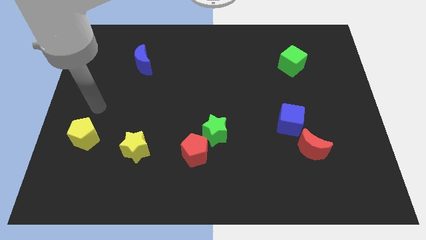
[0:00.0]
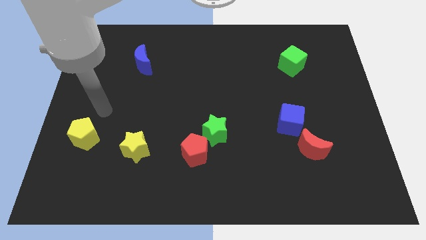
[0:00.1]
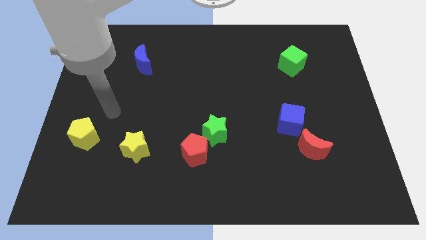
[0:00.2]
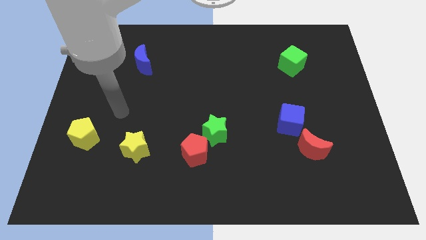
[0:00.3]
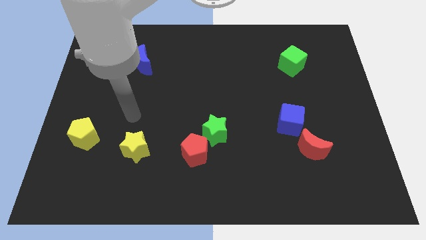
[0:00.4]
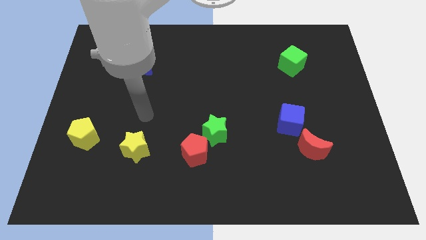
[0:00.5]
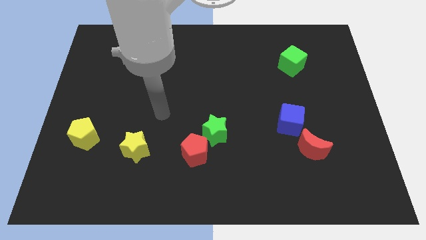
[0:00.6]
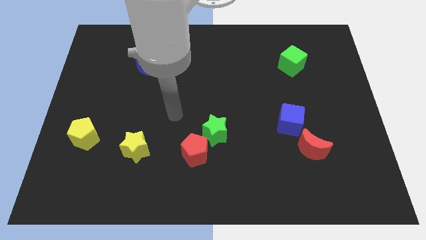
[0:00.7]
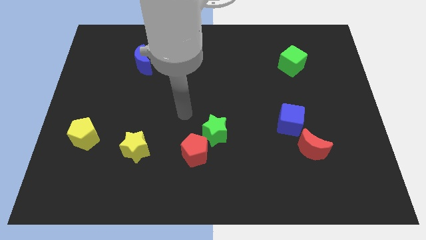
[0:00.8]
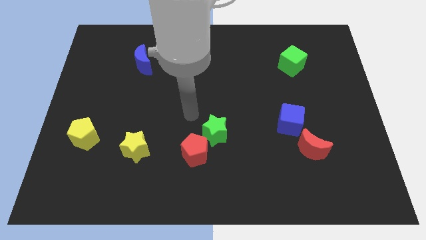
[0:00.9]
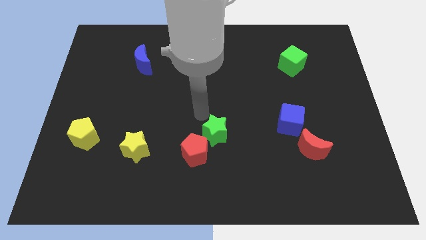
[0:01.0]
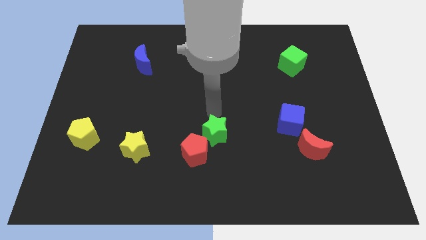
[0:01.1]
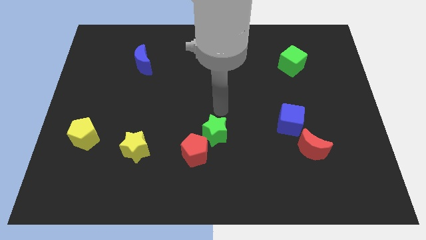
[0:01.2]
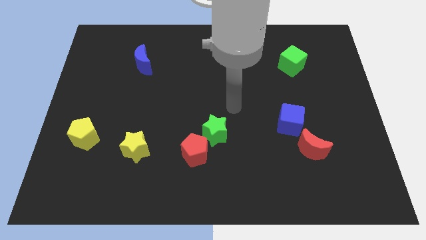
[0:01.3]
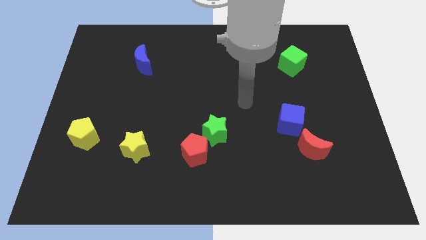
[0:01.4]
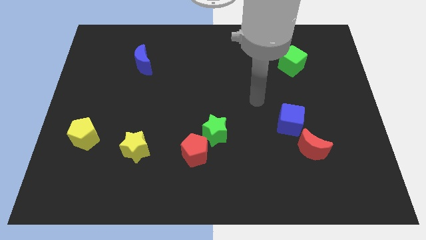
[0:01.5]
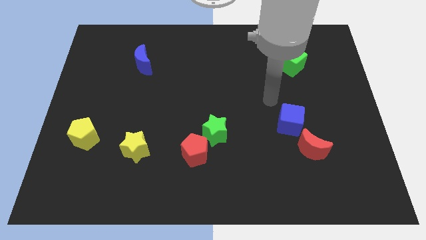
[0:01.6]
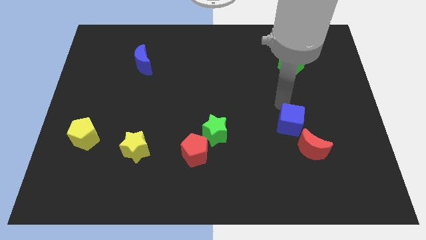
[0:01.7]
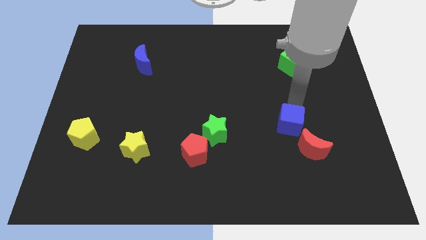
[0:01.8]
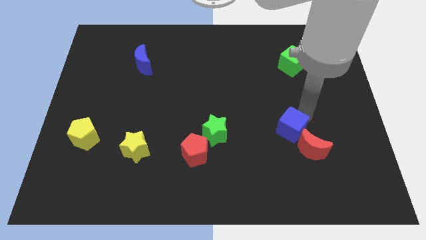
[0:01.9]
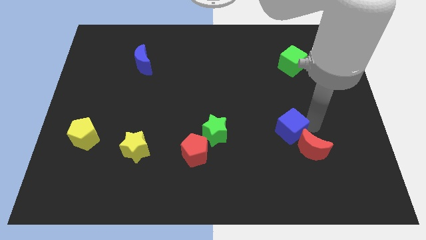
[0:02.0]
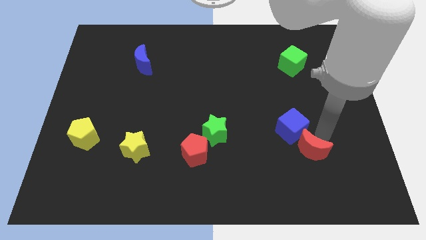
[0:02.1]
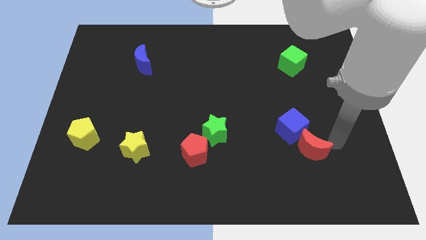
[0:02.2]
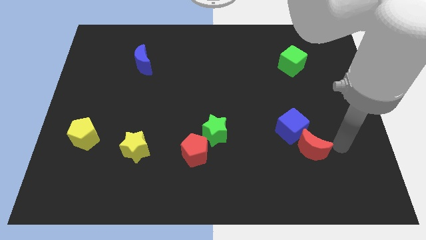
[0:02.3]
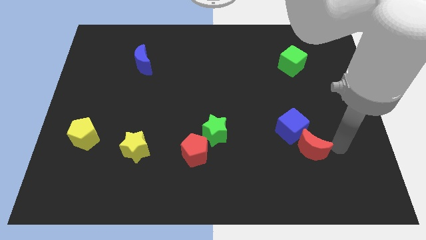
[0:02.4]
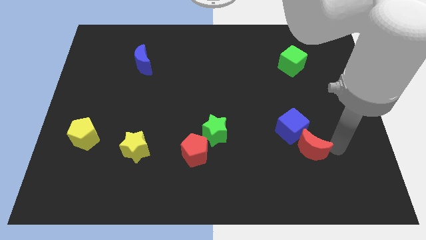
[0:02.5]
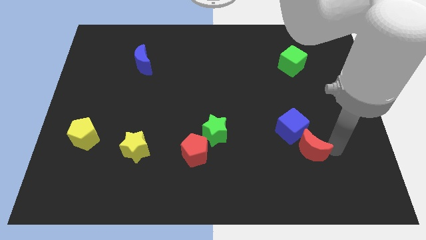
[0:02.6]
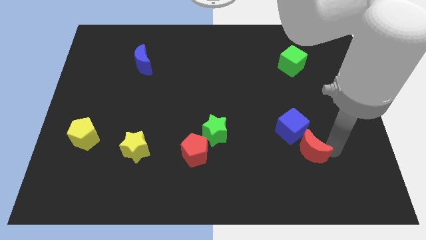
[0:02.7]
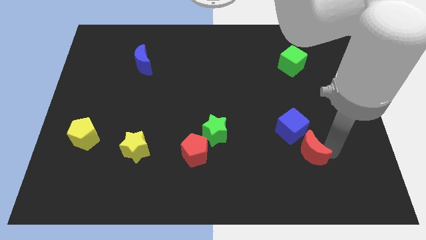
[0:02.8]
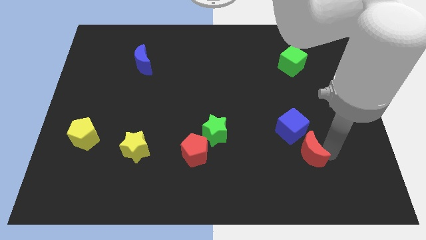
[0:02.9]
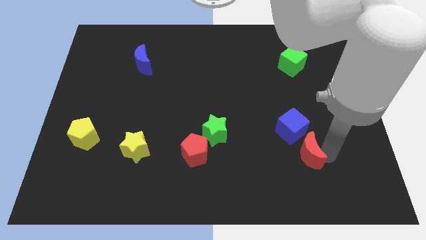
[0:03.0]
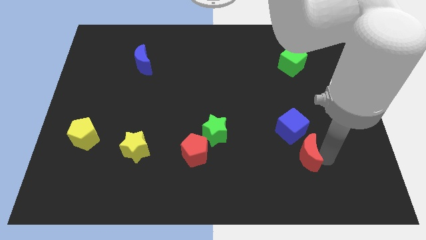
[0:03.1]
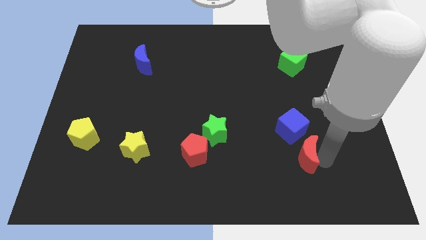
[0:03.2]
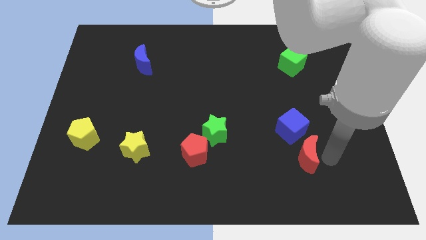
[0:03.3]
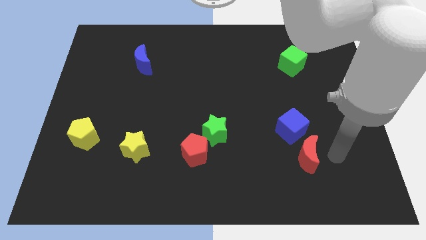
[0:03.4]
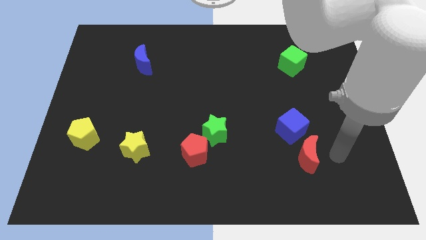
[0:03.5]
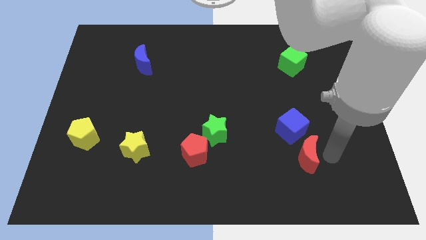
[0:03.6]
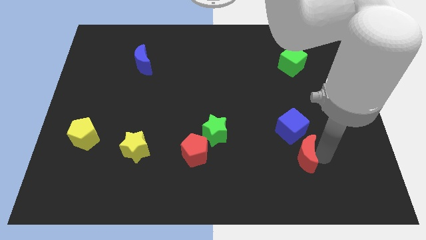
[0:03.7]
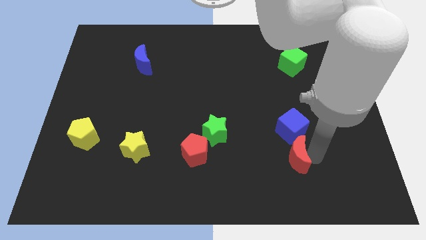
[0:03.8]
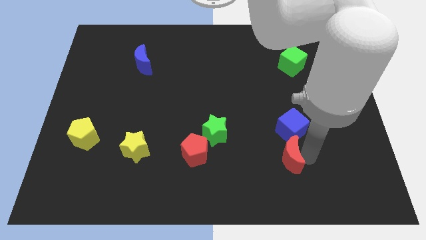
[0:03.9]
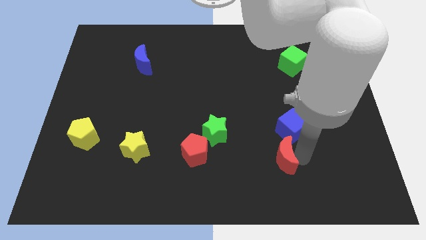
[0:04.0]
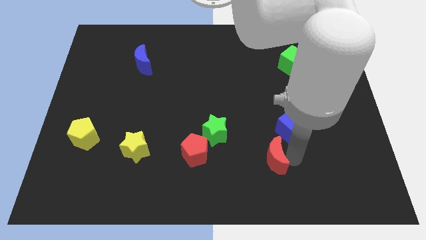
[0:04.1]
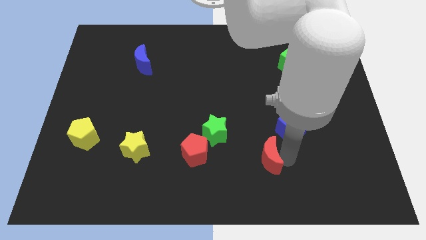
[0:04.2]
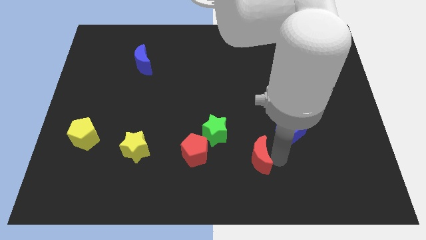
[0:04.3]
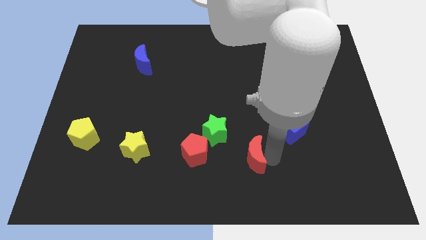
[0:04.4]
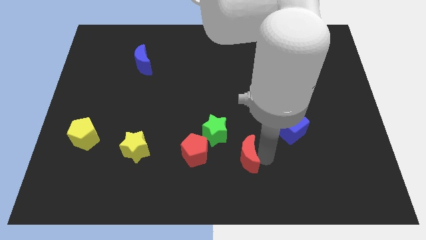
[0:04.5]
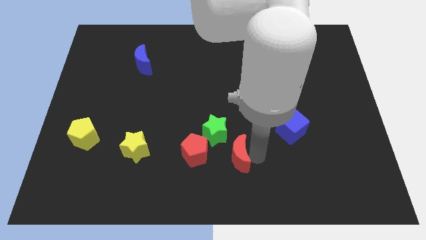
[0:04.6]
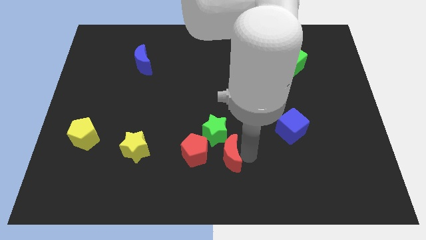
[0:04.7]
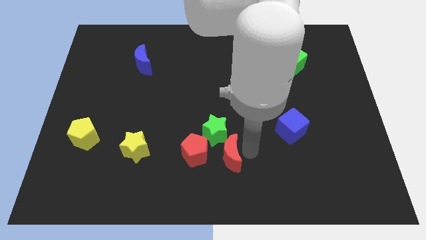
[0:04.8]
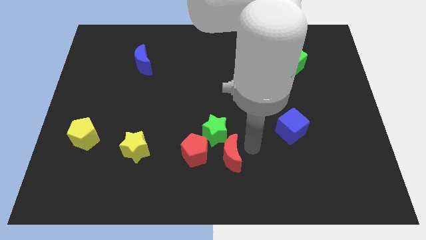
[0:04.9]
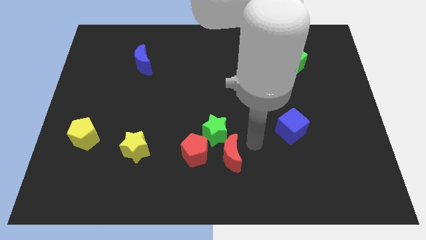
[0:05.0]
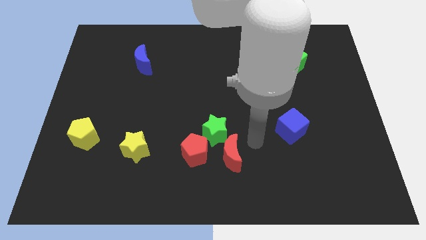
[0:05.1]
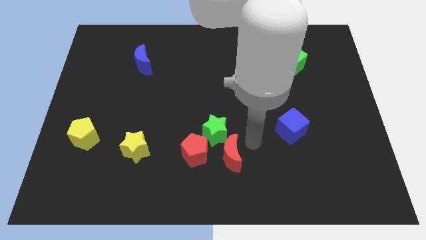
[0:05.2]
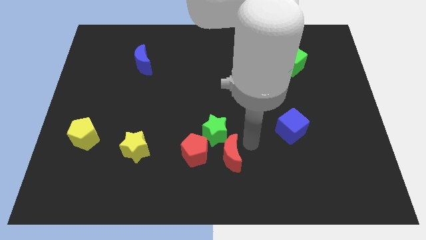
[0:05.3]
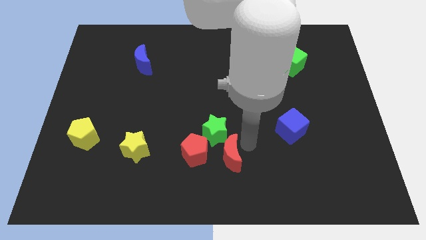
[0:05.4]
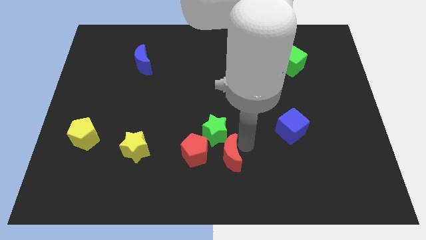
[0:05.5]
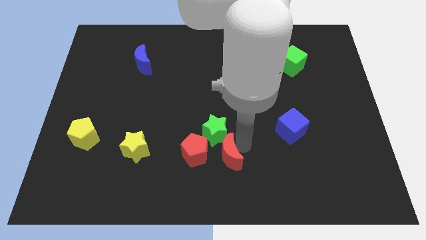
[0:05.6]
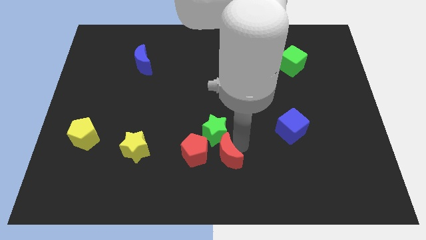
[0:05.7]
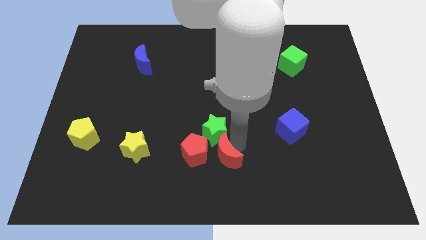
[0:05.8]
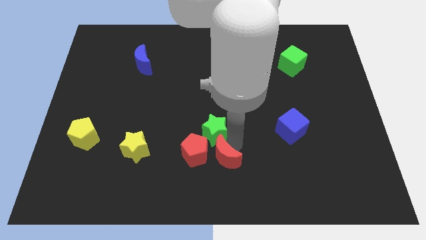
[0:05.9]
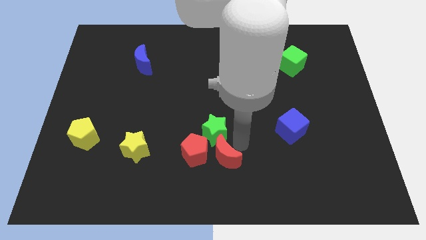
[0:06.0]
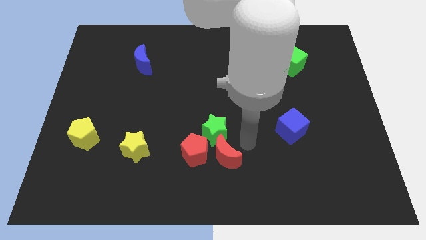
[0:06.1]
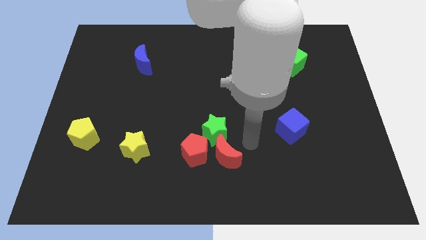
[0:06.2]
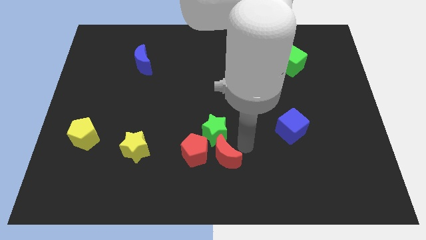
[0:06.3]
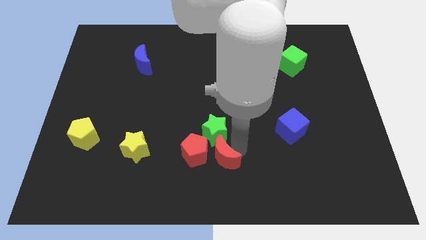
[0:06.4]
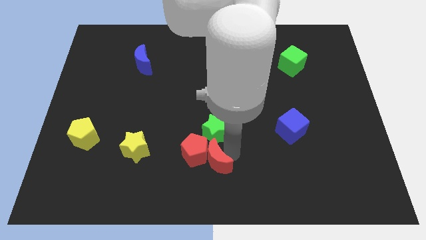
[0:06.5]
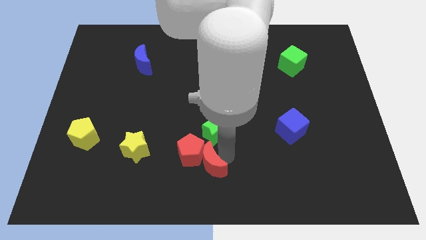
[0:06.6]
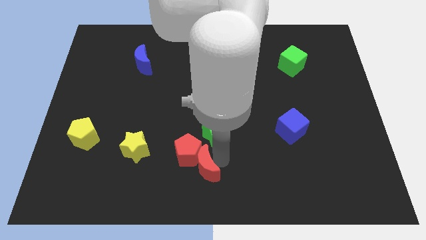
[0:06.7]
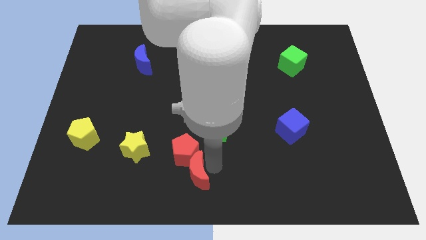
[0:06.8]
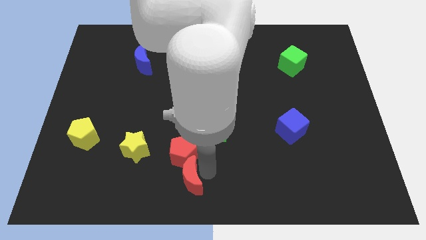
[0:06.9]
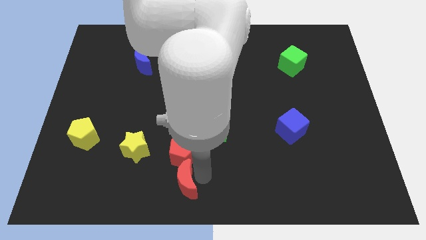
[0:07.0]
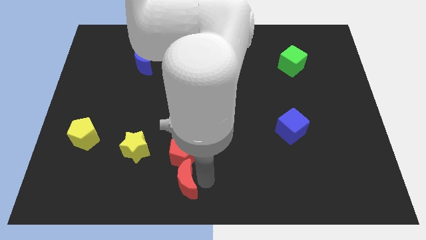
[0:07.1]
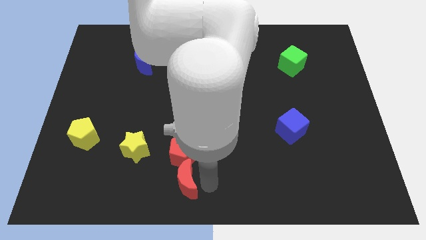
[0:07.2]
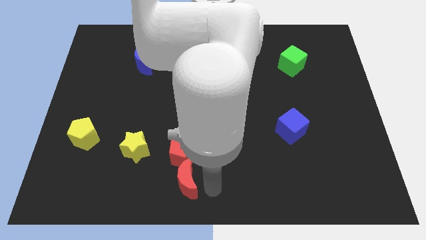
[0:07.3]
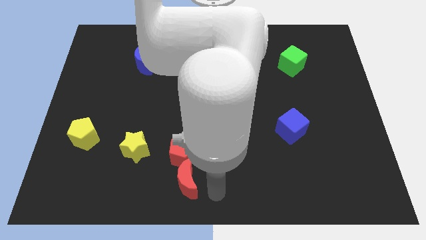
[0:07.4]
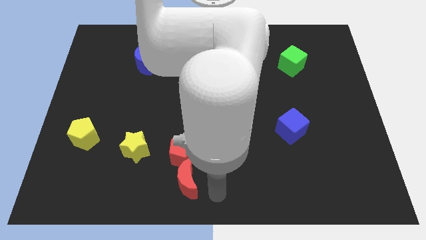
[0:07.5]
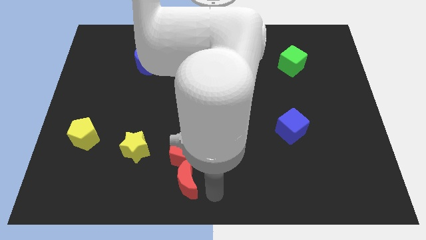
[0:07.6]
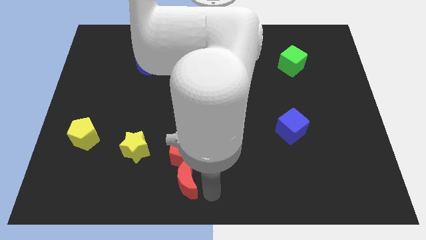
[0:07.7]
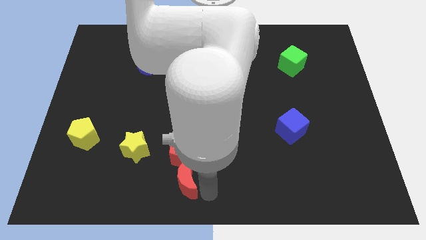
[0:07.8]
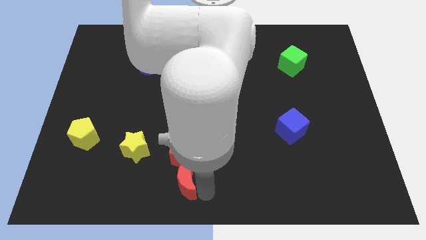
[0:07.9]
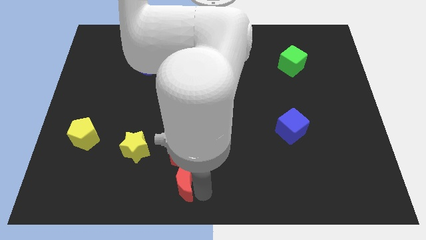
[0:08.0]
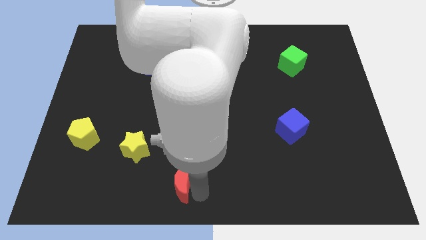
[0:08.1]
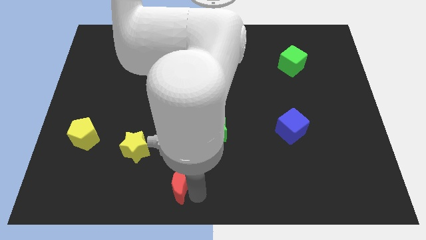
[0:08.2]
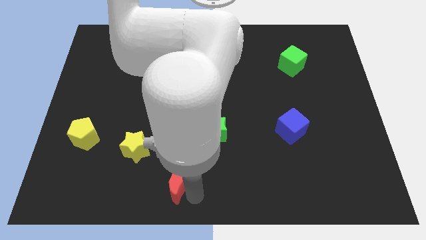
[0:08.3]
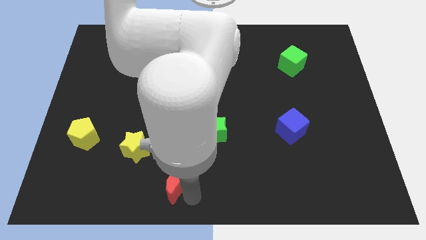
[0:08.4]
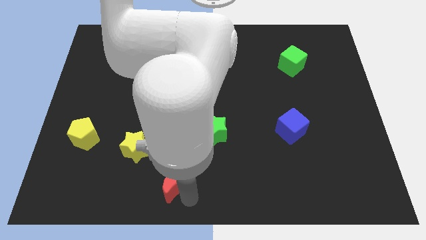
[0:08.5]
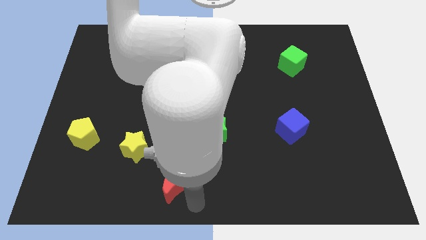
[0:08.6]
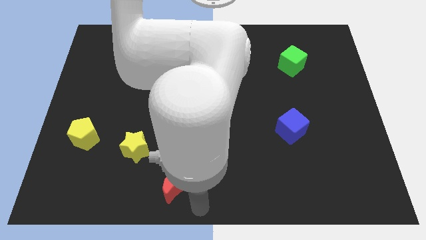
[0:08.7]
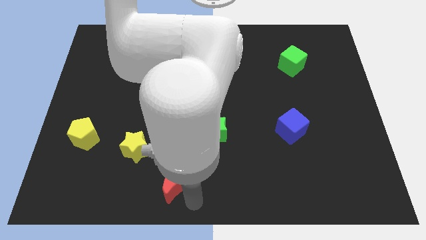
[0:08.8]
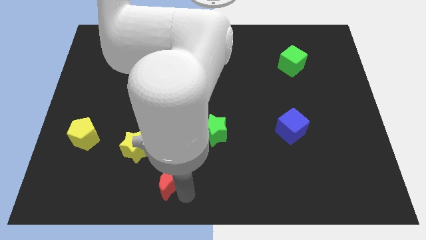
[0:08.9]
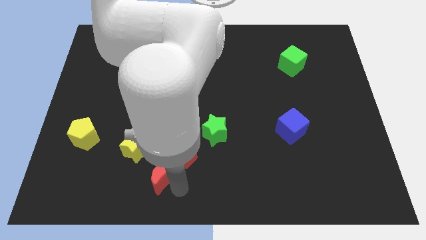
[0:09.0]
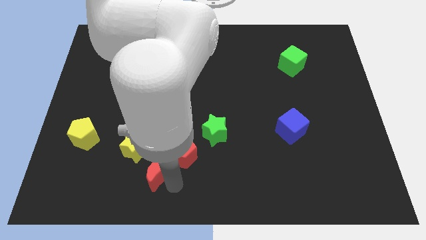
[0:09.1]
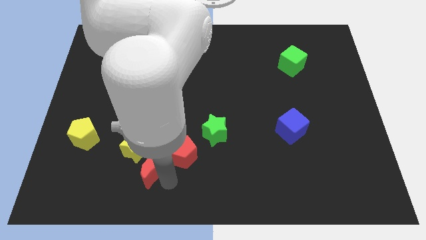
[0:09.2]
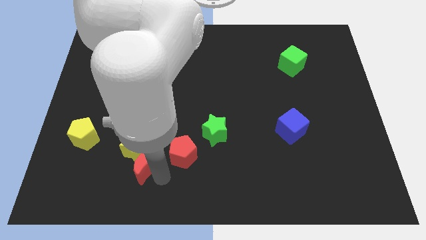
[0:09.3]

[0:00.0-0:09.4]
put the red moon towards the yellow star
